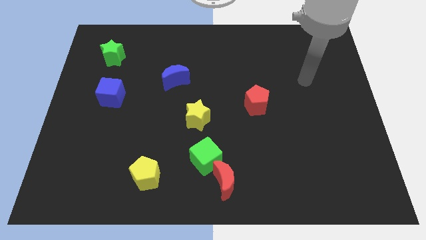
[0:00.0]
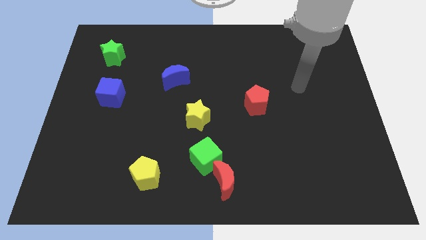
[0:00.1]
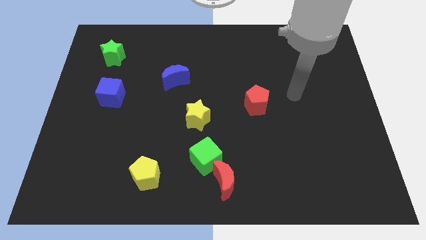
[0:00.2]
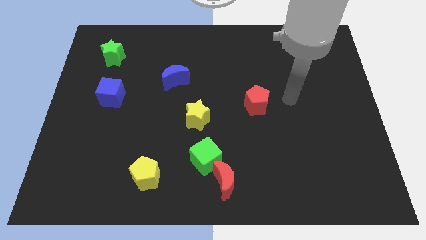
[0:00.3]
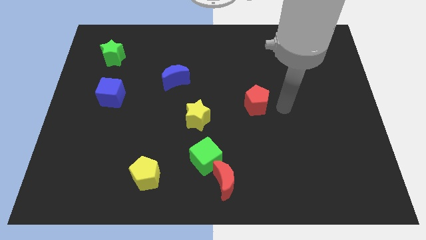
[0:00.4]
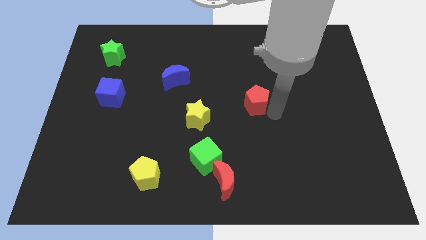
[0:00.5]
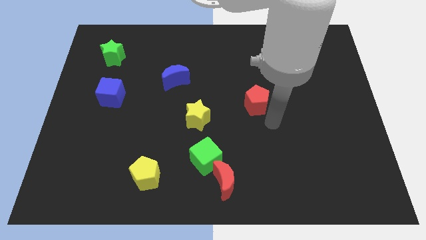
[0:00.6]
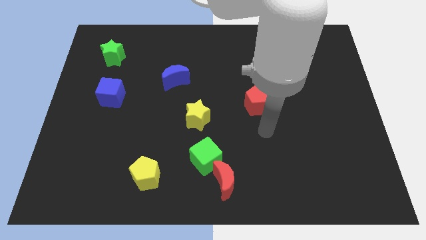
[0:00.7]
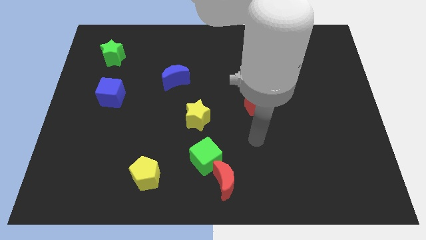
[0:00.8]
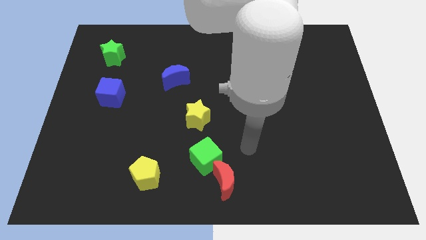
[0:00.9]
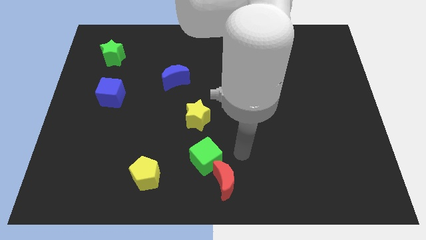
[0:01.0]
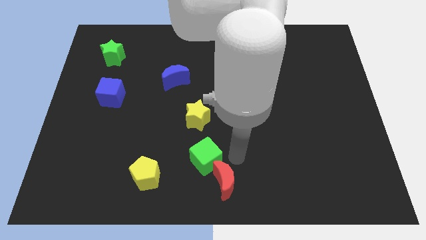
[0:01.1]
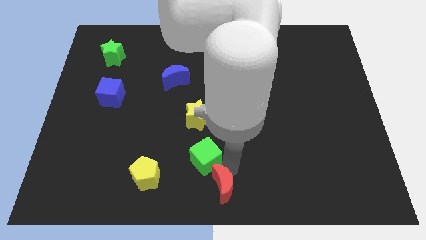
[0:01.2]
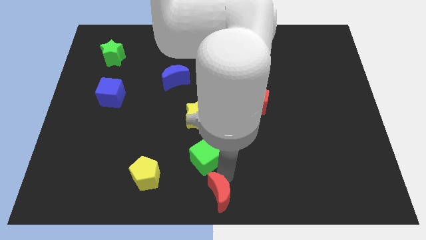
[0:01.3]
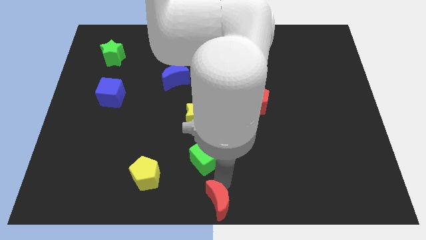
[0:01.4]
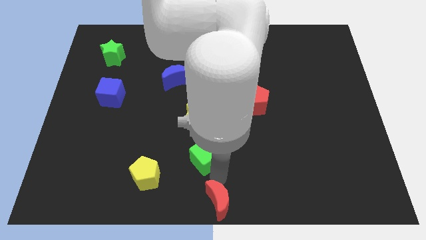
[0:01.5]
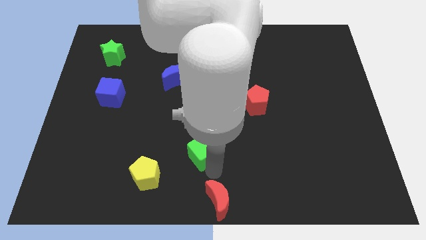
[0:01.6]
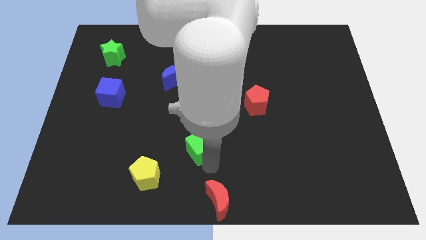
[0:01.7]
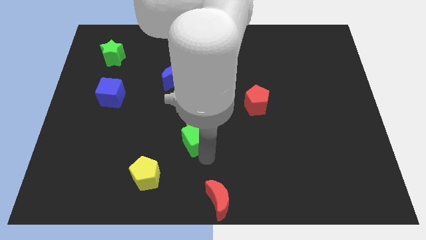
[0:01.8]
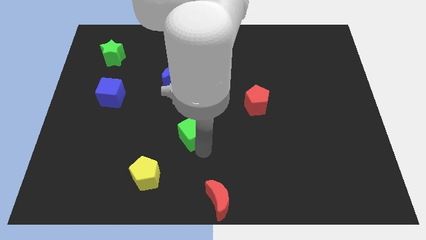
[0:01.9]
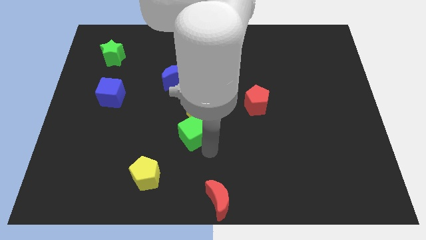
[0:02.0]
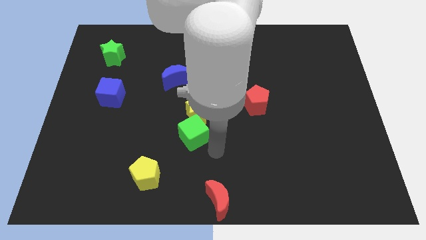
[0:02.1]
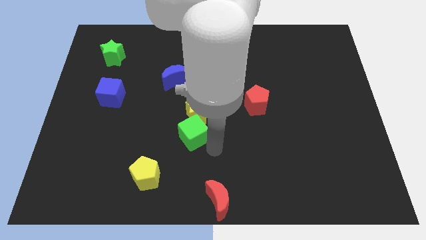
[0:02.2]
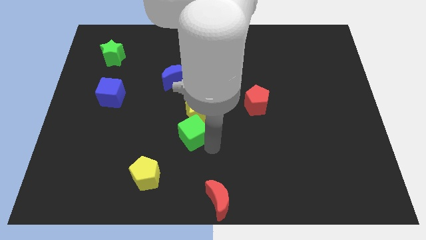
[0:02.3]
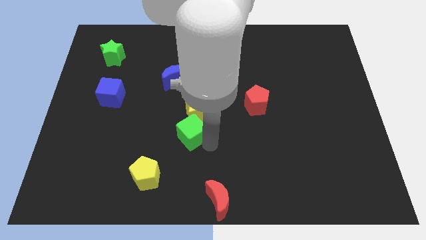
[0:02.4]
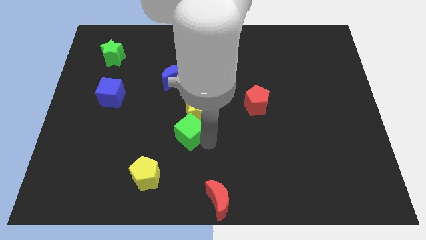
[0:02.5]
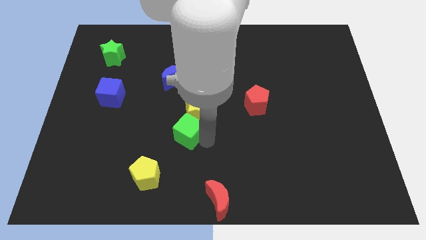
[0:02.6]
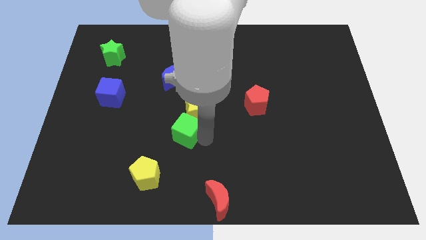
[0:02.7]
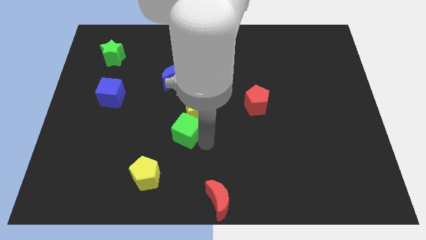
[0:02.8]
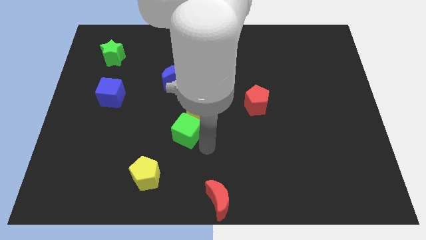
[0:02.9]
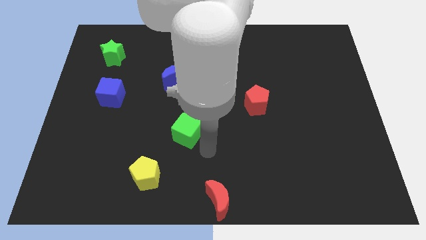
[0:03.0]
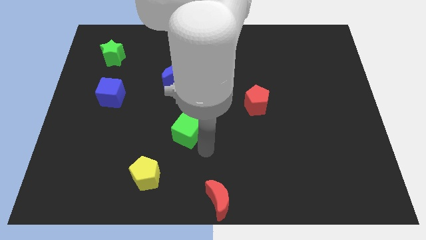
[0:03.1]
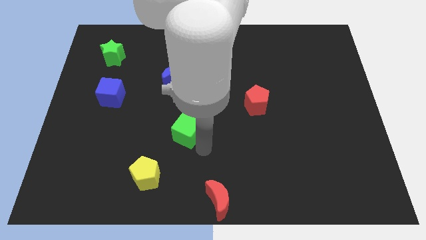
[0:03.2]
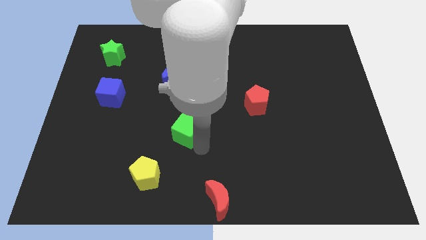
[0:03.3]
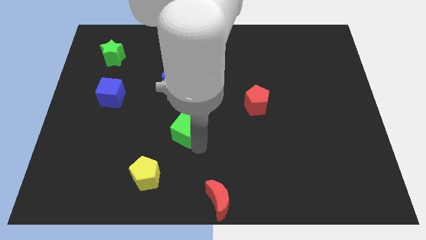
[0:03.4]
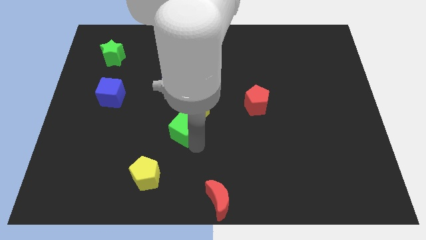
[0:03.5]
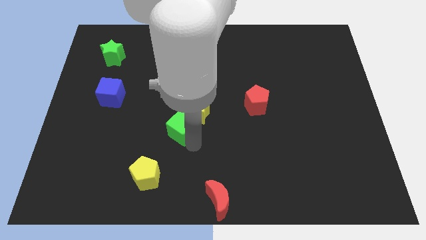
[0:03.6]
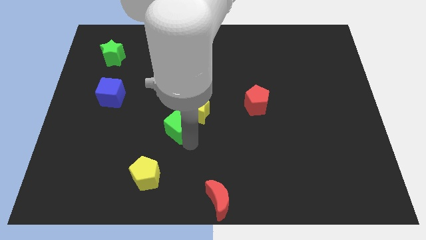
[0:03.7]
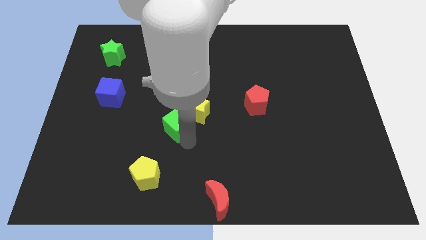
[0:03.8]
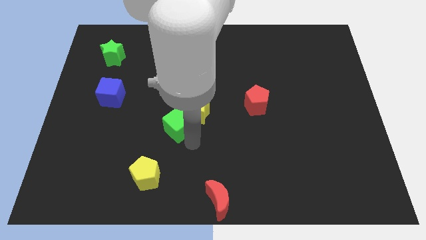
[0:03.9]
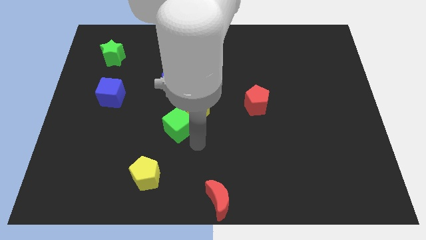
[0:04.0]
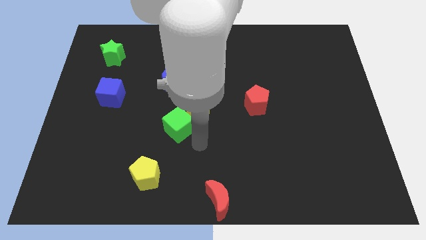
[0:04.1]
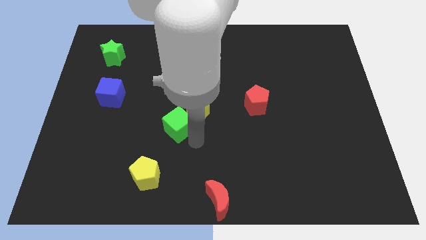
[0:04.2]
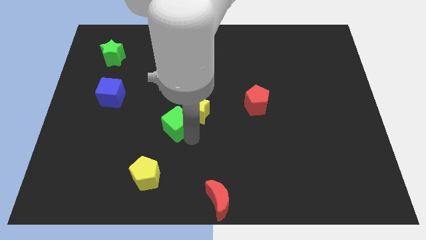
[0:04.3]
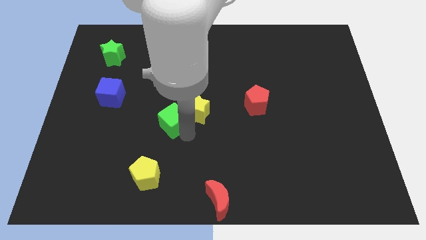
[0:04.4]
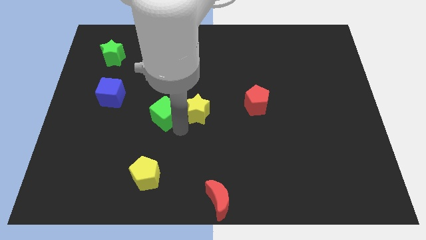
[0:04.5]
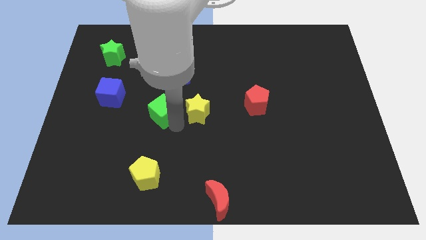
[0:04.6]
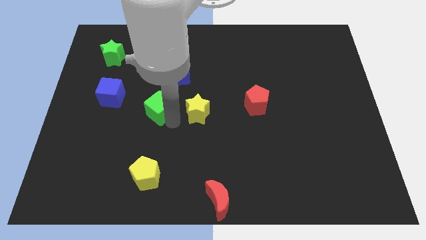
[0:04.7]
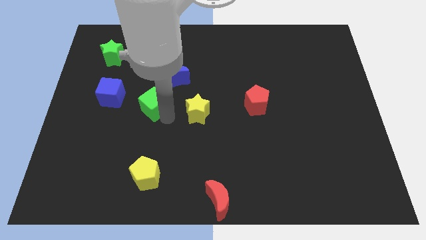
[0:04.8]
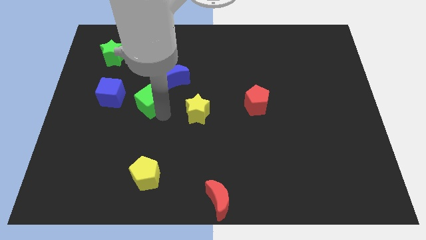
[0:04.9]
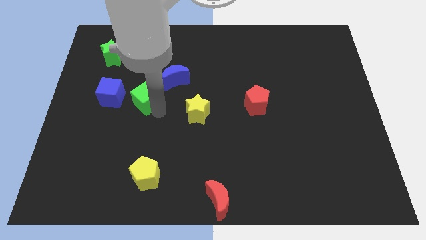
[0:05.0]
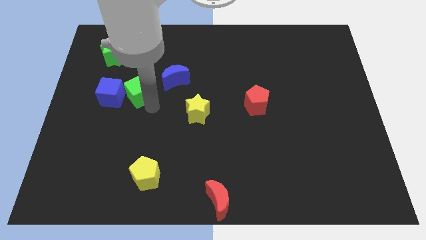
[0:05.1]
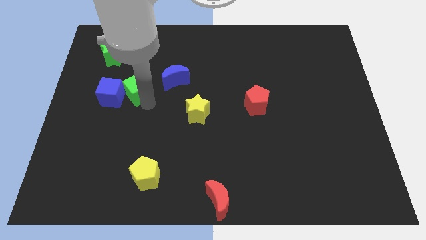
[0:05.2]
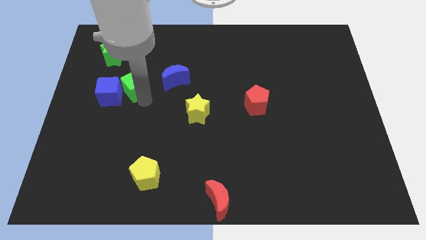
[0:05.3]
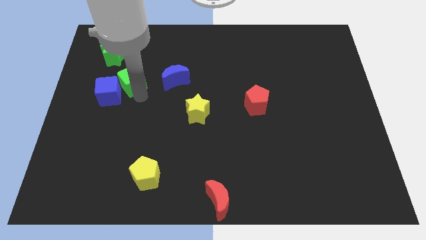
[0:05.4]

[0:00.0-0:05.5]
move the green cube to the bottom right side of the green star

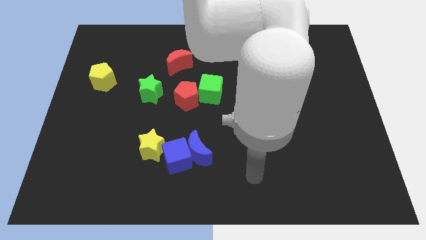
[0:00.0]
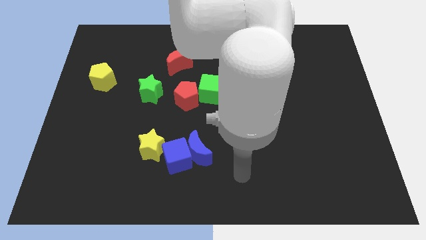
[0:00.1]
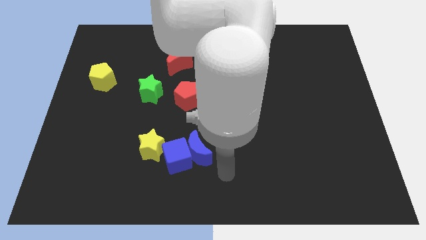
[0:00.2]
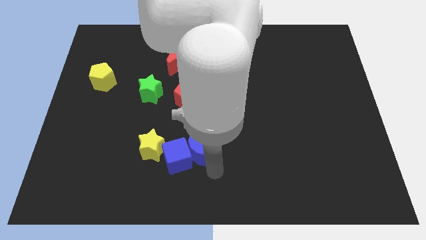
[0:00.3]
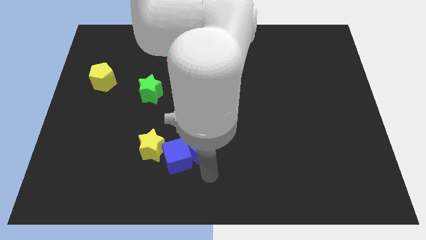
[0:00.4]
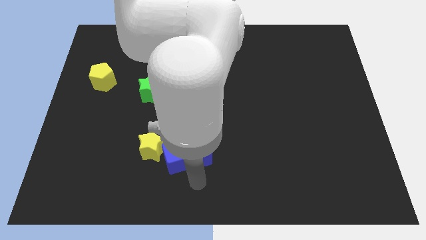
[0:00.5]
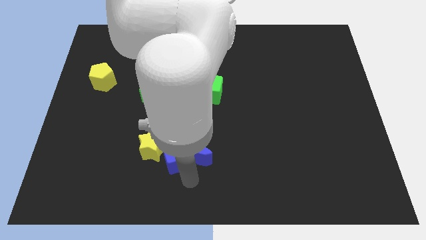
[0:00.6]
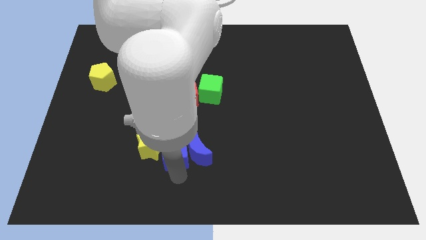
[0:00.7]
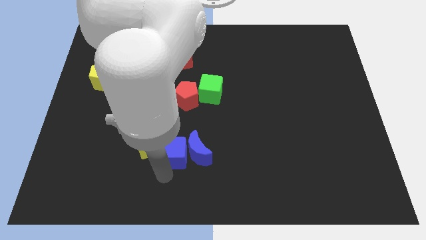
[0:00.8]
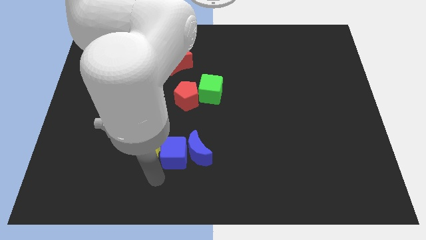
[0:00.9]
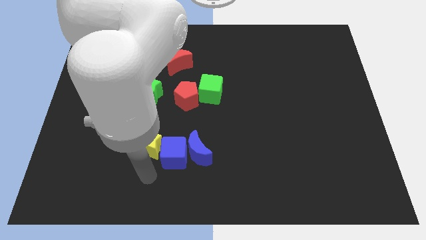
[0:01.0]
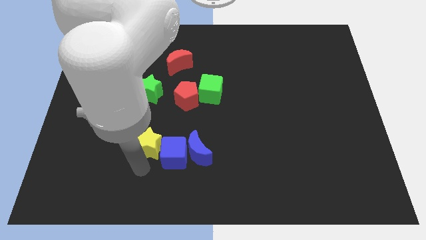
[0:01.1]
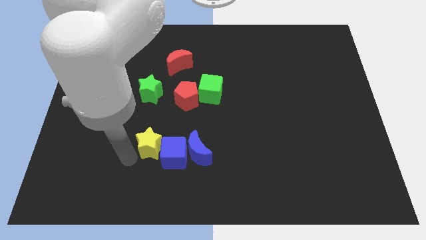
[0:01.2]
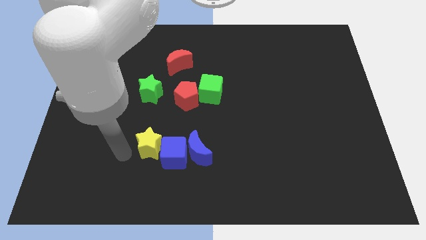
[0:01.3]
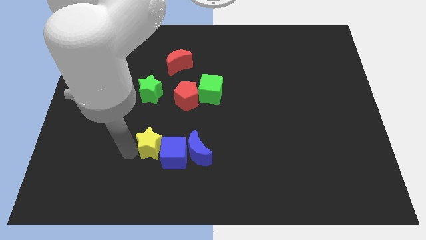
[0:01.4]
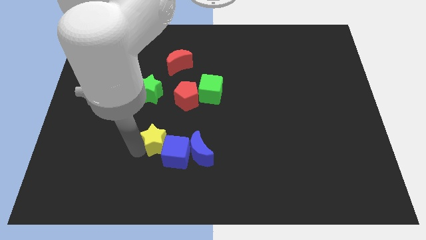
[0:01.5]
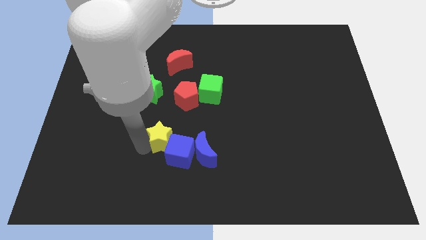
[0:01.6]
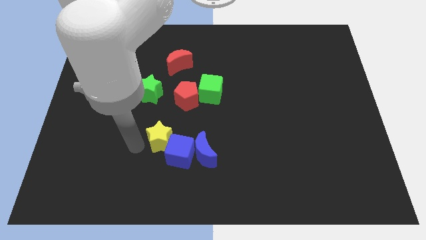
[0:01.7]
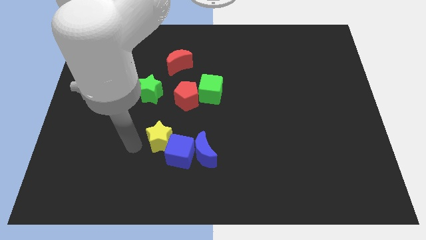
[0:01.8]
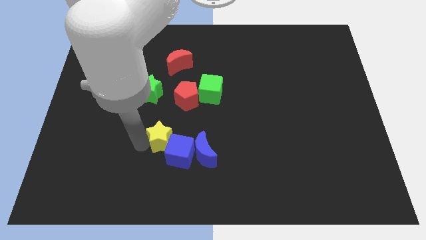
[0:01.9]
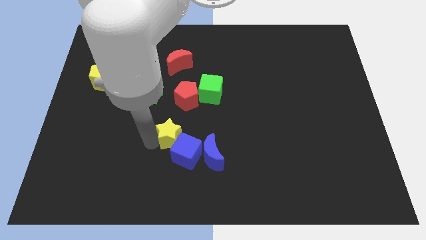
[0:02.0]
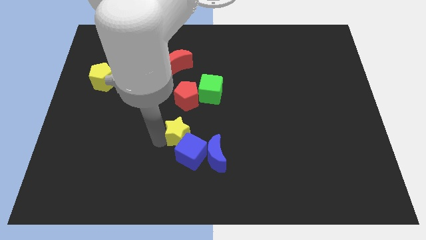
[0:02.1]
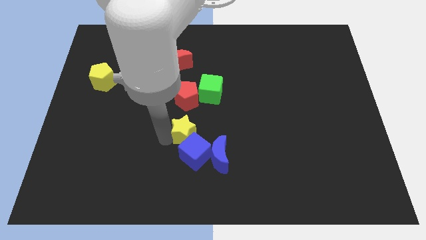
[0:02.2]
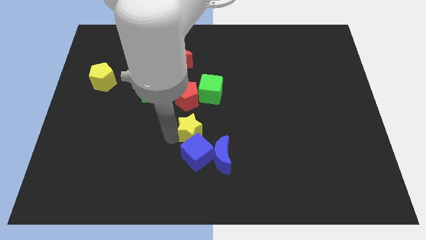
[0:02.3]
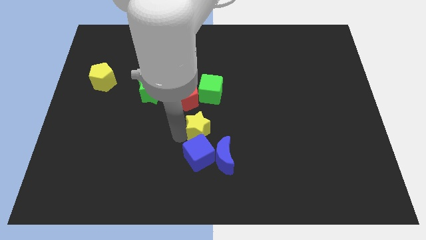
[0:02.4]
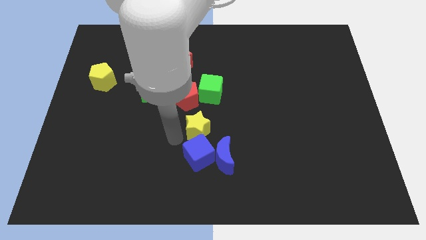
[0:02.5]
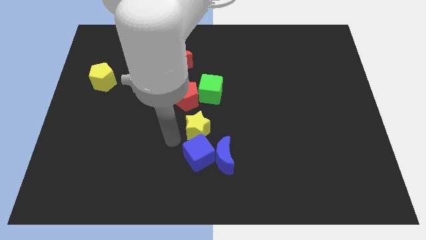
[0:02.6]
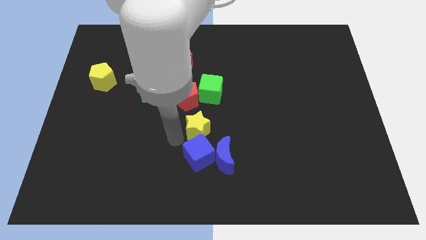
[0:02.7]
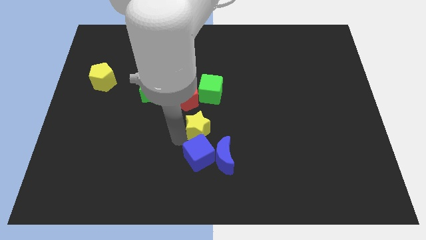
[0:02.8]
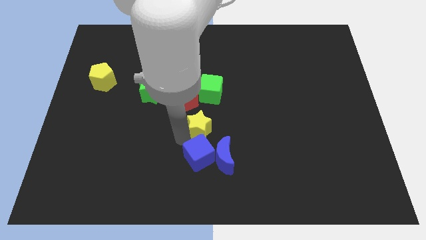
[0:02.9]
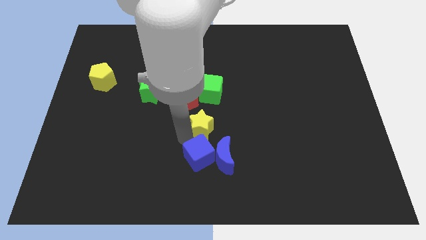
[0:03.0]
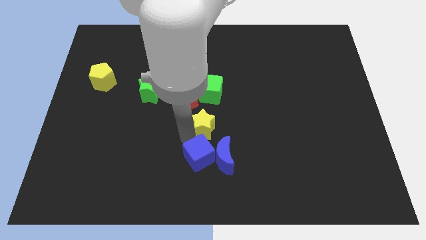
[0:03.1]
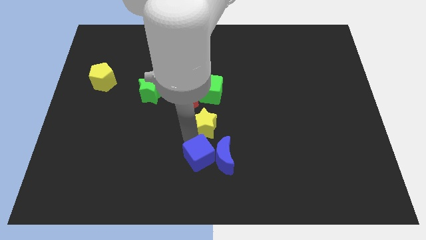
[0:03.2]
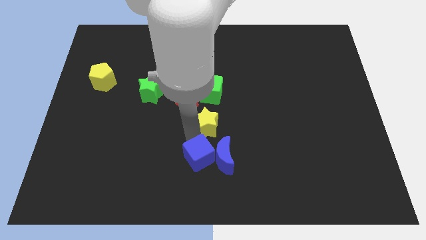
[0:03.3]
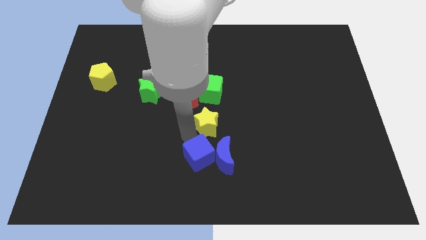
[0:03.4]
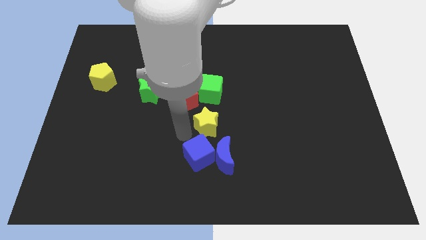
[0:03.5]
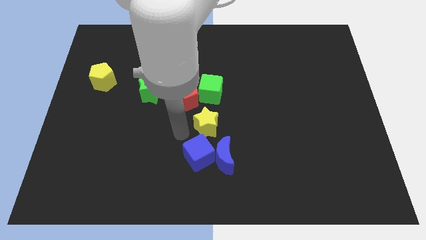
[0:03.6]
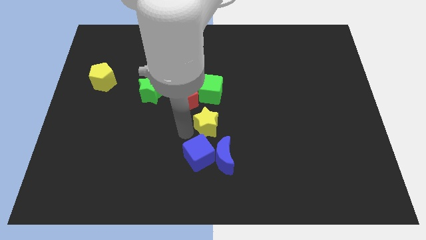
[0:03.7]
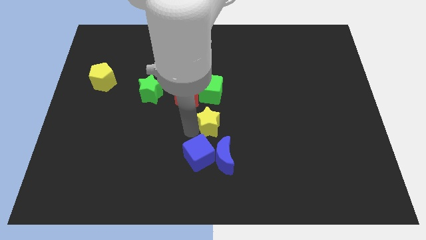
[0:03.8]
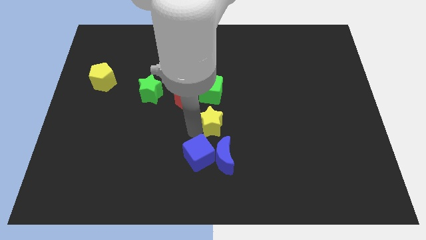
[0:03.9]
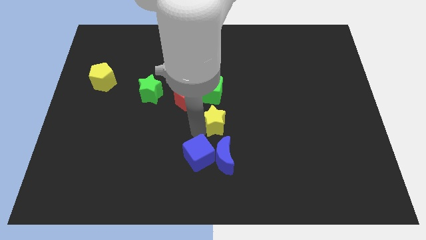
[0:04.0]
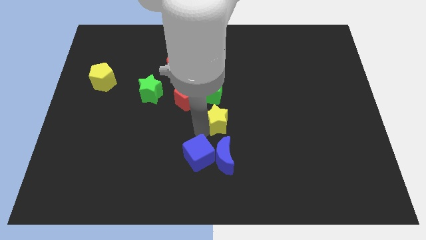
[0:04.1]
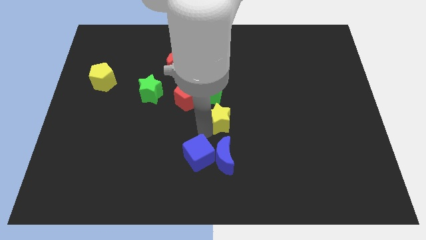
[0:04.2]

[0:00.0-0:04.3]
put the yellow star diagonally down and to the right of the green cube
